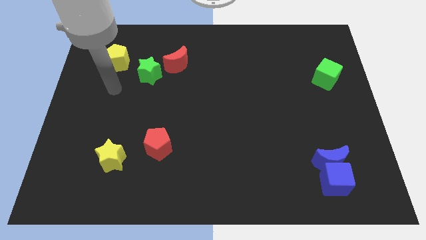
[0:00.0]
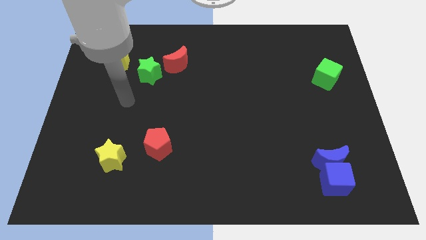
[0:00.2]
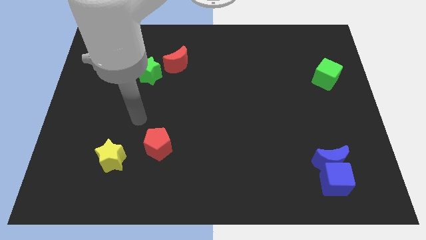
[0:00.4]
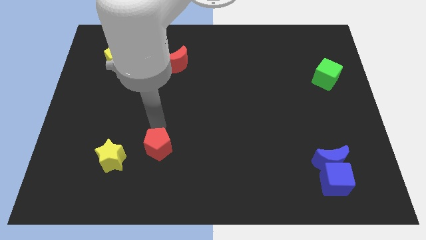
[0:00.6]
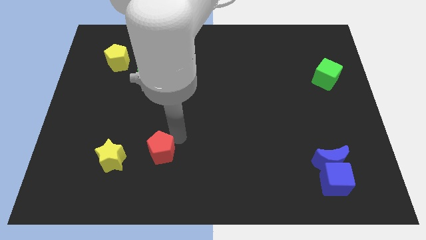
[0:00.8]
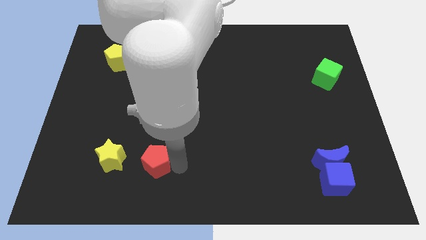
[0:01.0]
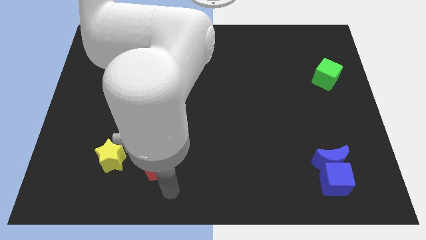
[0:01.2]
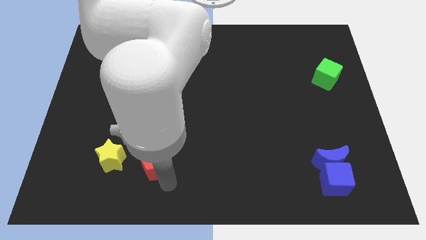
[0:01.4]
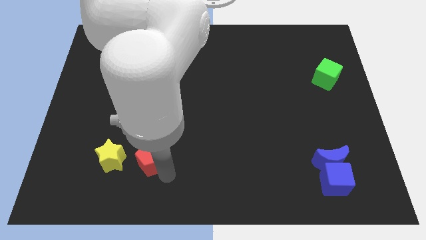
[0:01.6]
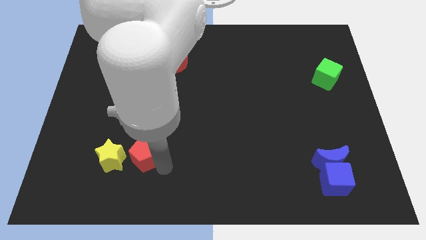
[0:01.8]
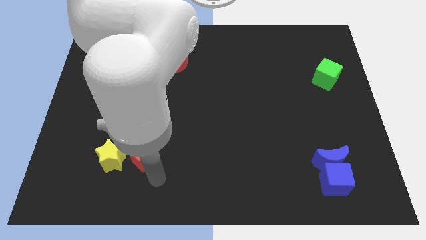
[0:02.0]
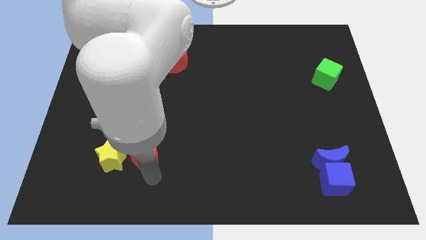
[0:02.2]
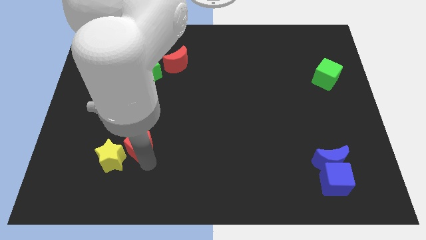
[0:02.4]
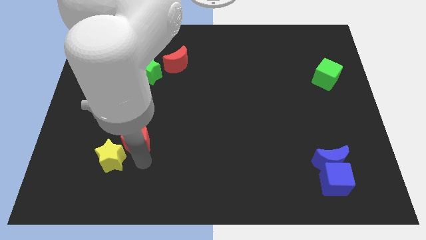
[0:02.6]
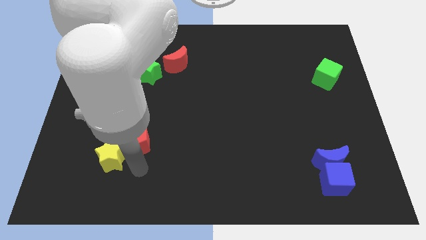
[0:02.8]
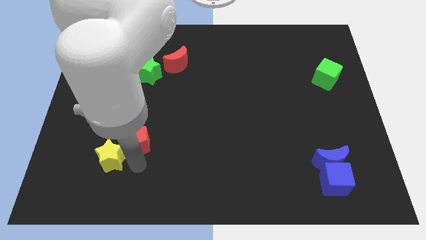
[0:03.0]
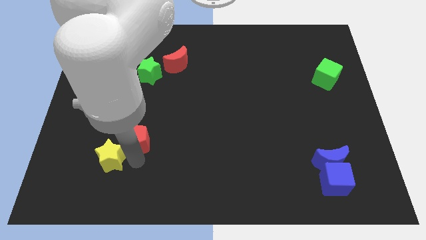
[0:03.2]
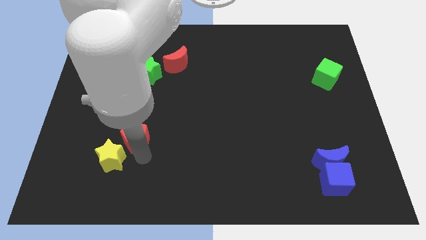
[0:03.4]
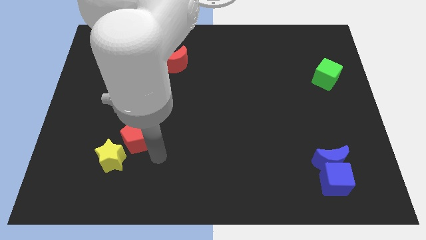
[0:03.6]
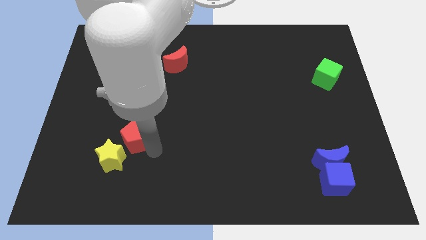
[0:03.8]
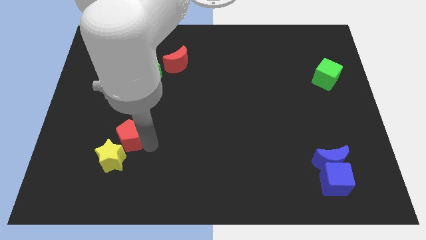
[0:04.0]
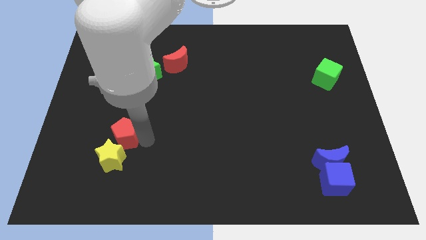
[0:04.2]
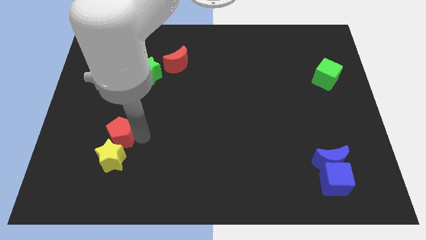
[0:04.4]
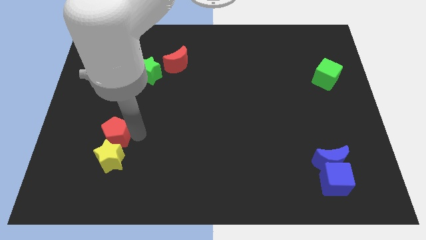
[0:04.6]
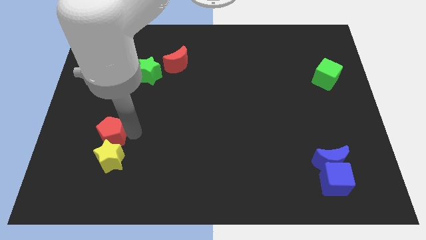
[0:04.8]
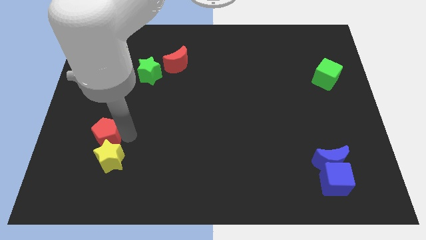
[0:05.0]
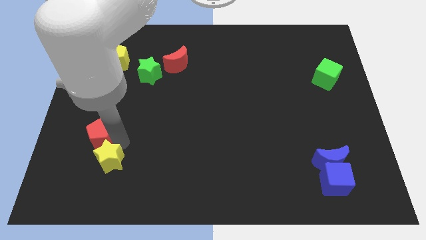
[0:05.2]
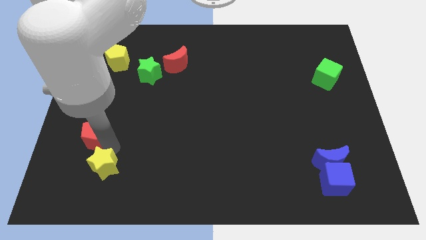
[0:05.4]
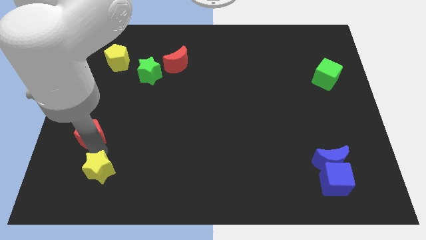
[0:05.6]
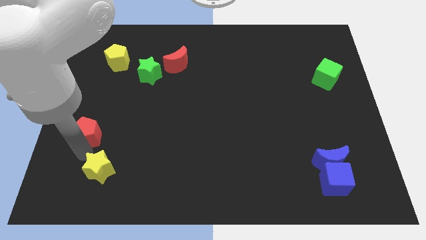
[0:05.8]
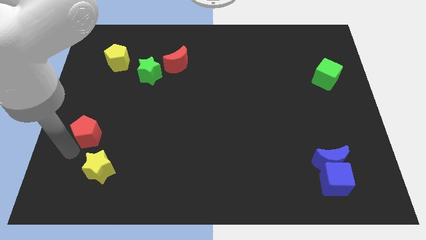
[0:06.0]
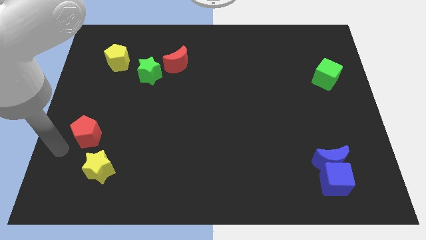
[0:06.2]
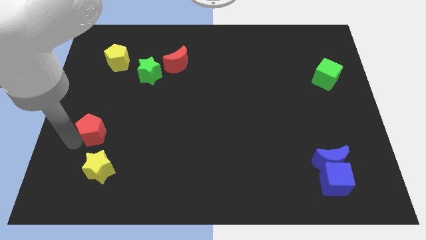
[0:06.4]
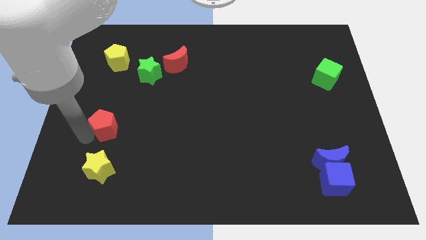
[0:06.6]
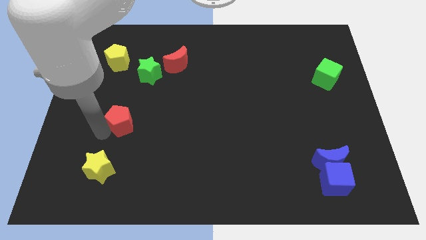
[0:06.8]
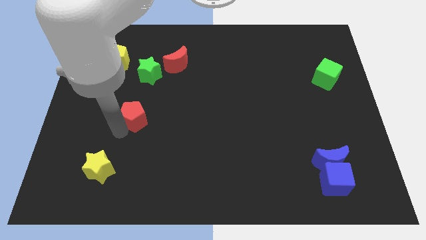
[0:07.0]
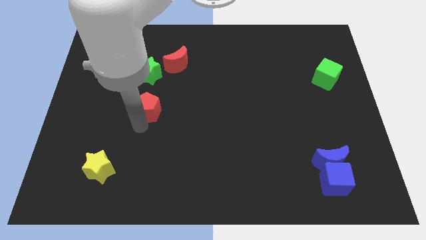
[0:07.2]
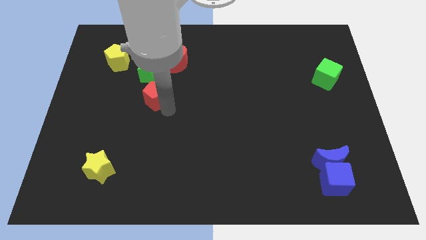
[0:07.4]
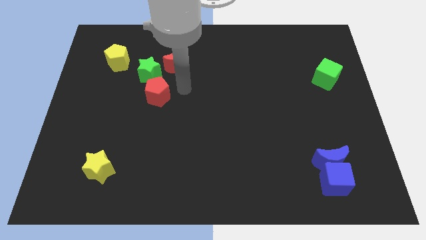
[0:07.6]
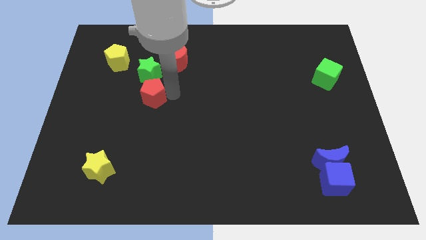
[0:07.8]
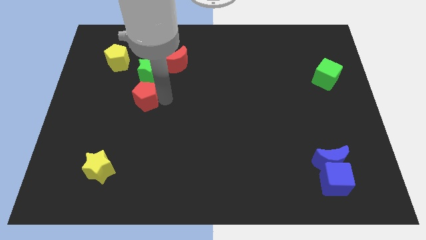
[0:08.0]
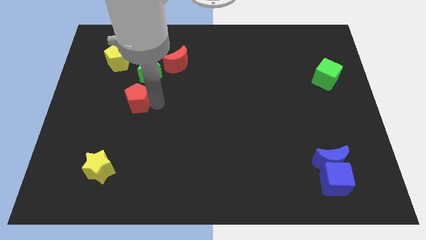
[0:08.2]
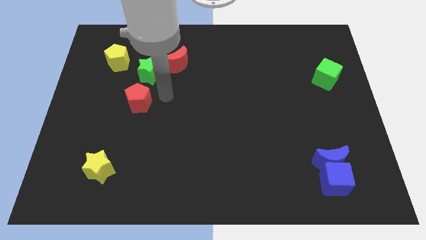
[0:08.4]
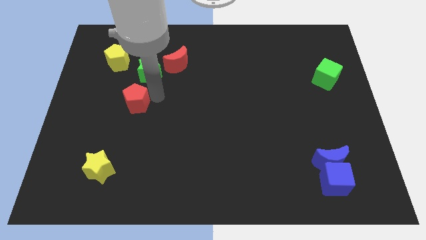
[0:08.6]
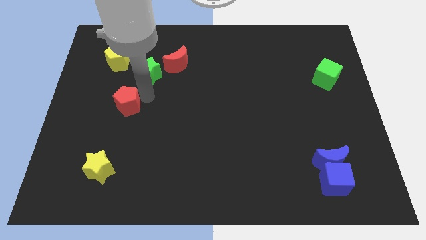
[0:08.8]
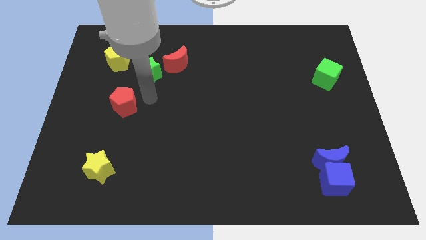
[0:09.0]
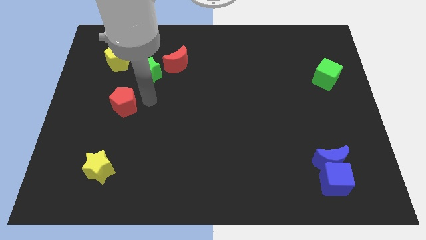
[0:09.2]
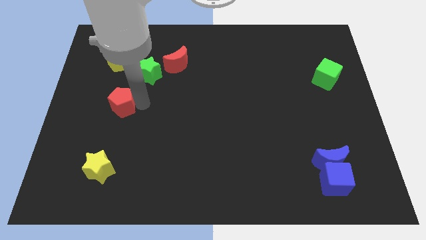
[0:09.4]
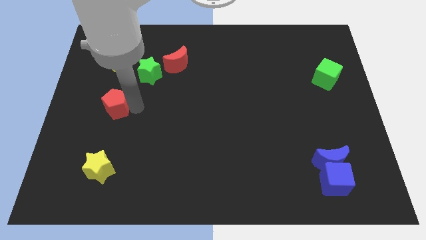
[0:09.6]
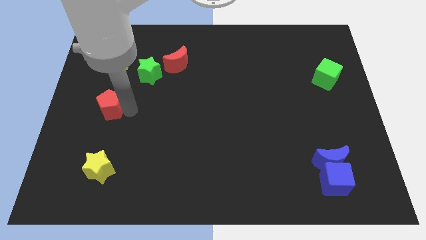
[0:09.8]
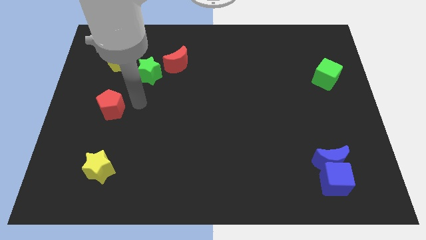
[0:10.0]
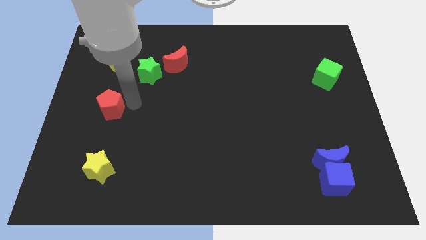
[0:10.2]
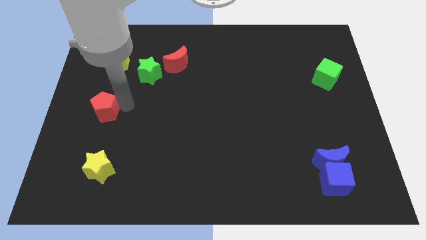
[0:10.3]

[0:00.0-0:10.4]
move the red pentagon to the center left

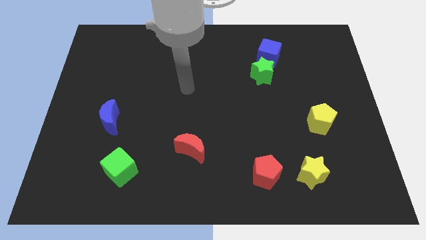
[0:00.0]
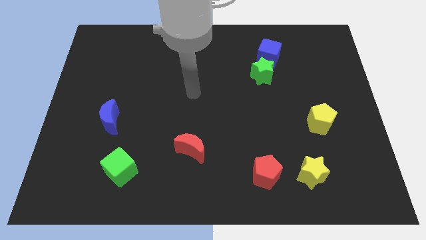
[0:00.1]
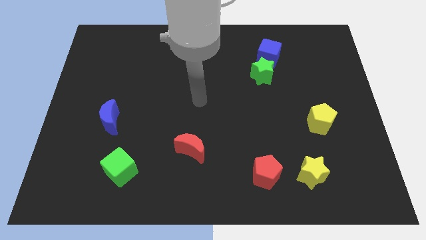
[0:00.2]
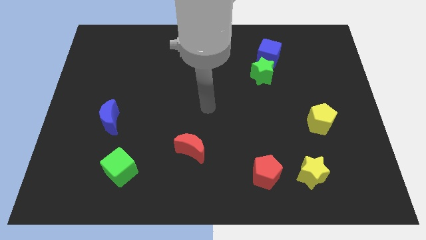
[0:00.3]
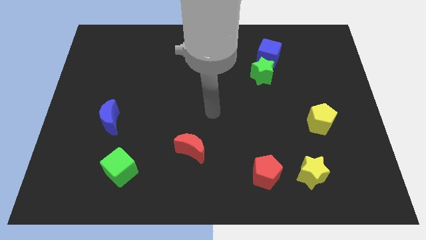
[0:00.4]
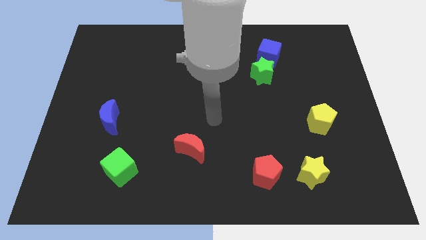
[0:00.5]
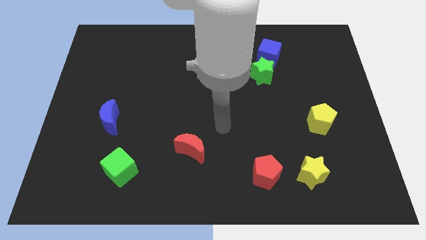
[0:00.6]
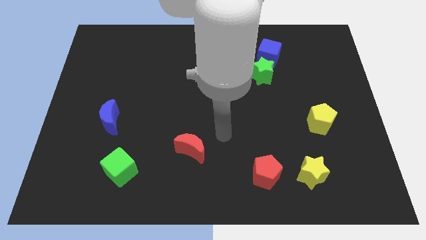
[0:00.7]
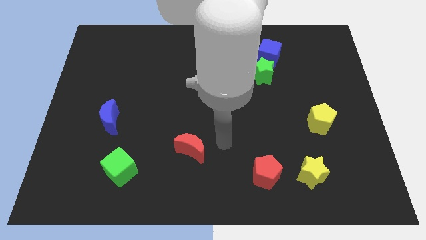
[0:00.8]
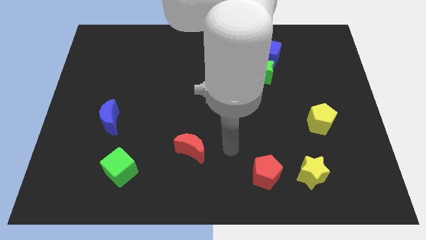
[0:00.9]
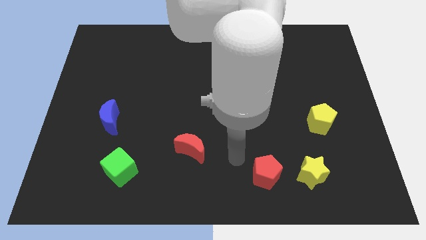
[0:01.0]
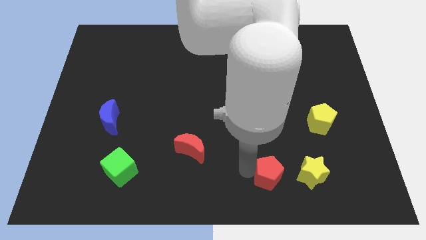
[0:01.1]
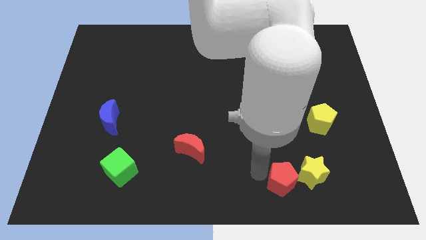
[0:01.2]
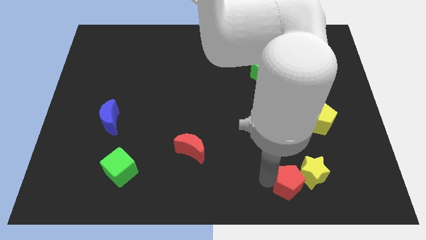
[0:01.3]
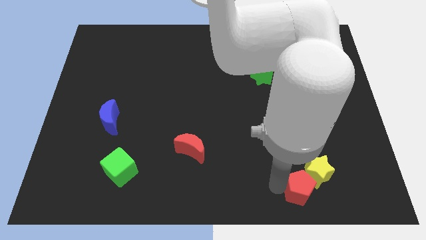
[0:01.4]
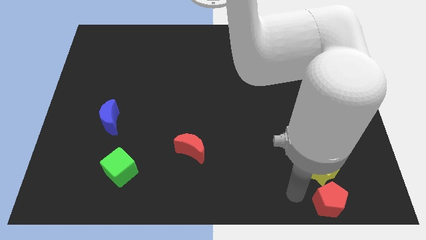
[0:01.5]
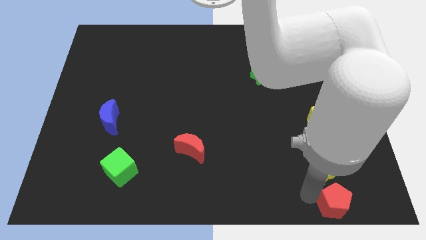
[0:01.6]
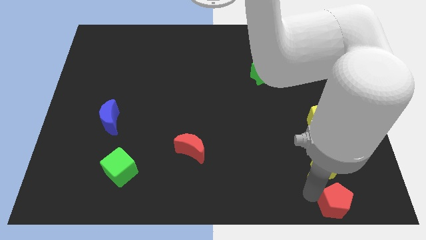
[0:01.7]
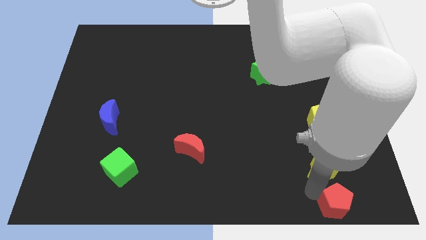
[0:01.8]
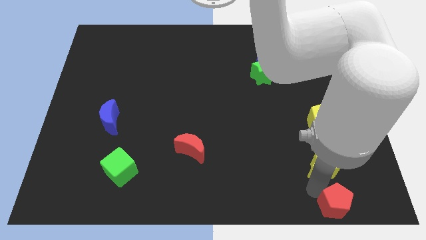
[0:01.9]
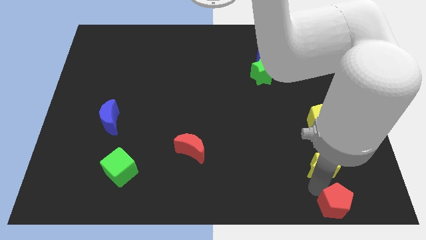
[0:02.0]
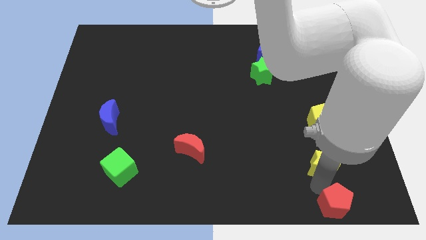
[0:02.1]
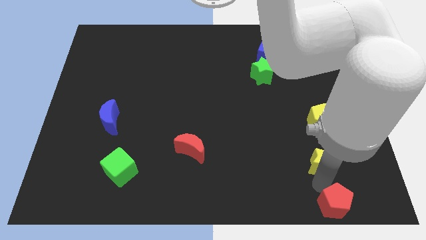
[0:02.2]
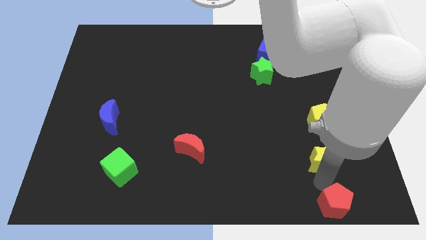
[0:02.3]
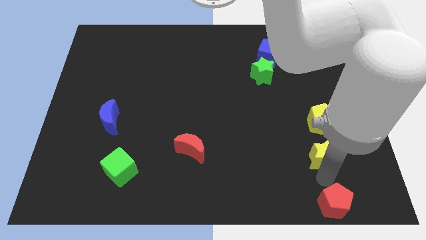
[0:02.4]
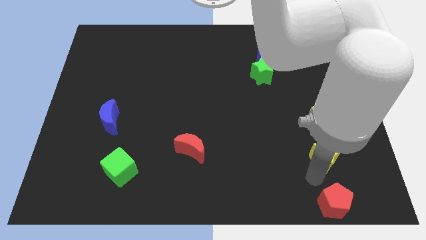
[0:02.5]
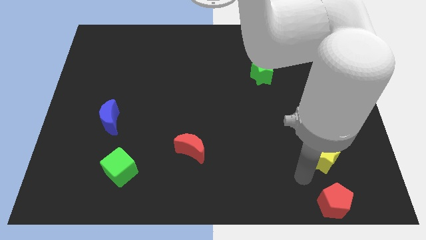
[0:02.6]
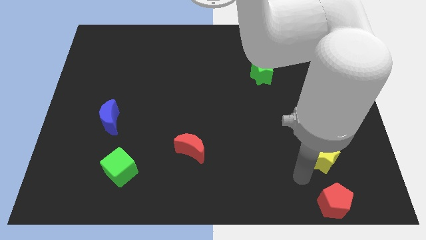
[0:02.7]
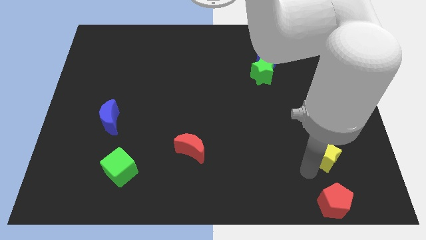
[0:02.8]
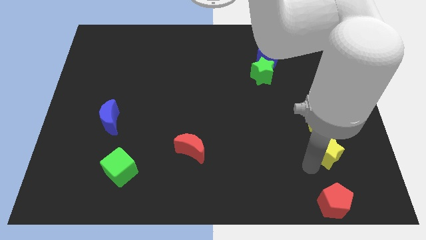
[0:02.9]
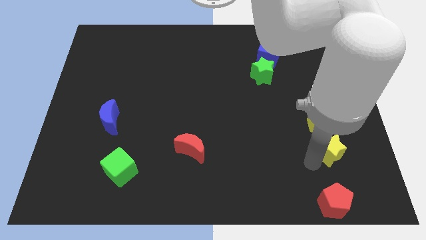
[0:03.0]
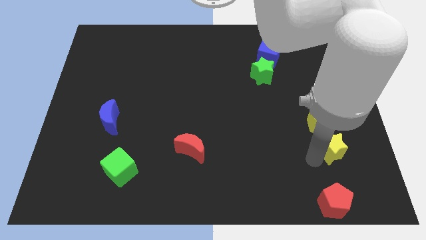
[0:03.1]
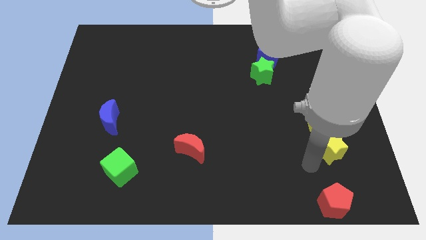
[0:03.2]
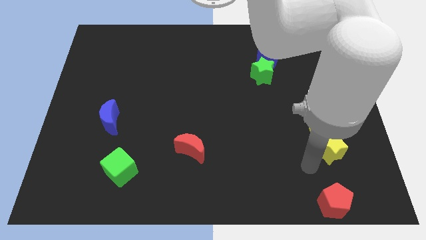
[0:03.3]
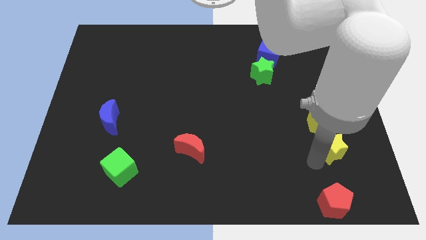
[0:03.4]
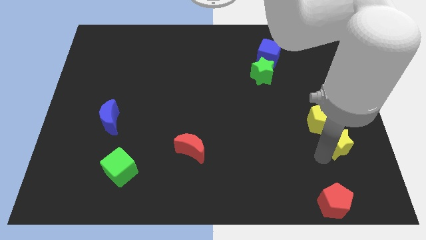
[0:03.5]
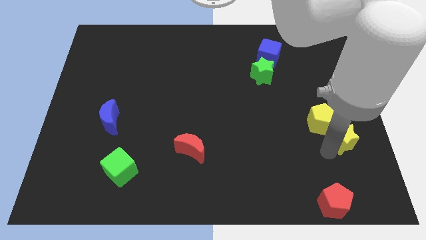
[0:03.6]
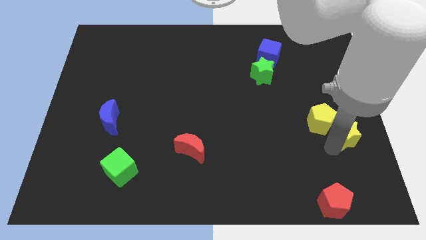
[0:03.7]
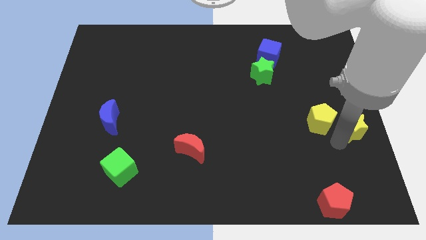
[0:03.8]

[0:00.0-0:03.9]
move the yellow star to the right side
